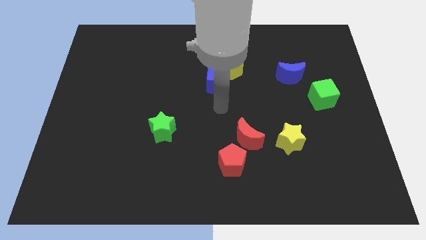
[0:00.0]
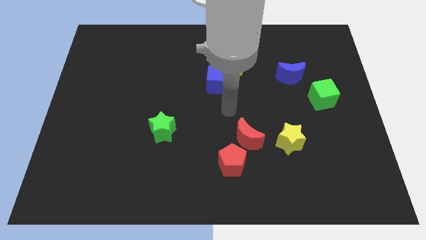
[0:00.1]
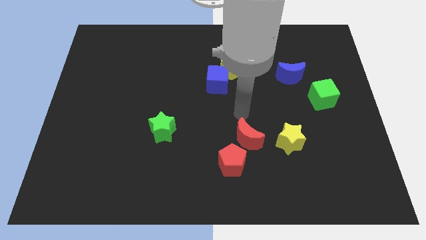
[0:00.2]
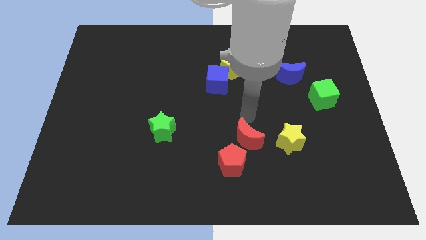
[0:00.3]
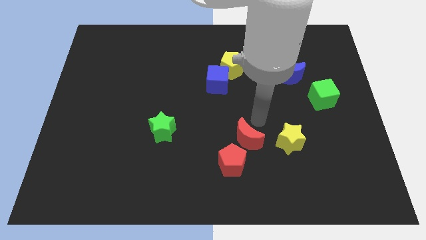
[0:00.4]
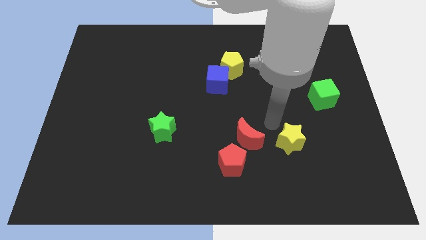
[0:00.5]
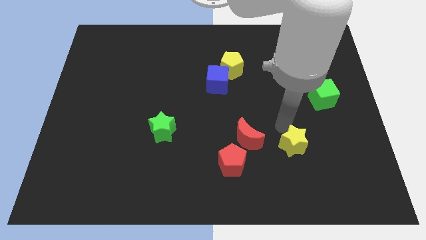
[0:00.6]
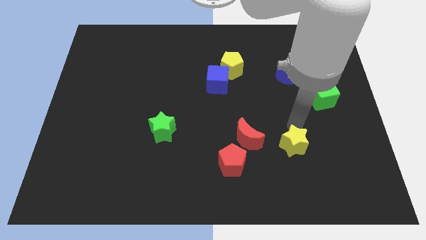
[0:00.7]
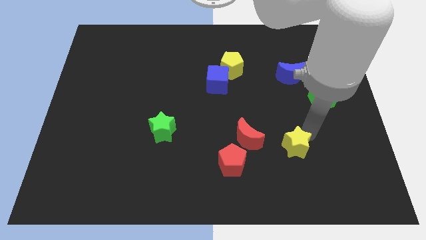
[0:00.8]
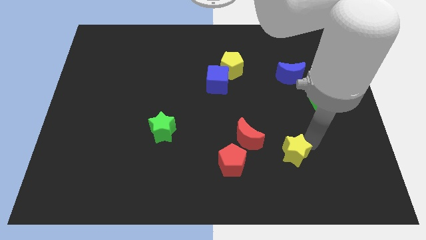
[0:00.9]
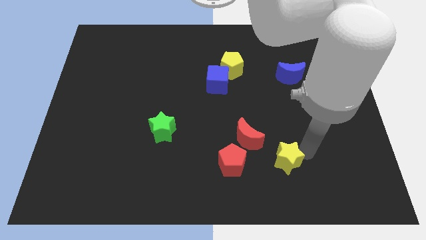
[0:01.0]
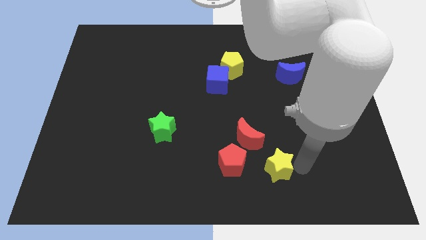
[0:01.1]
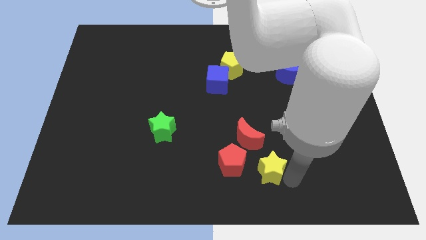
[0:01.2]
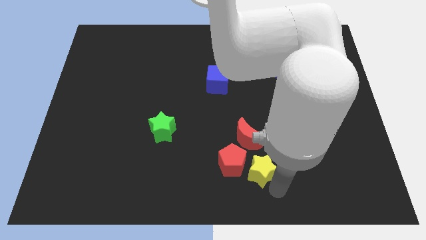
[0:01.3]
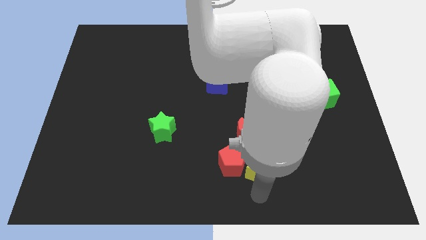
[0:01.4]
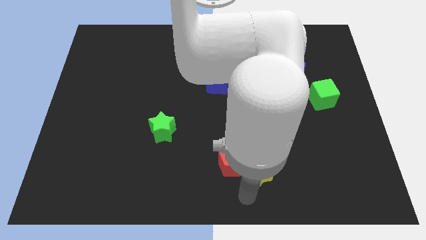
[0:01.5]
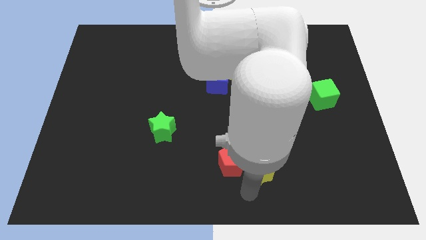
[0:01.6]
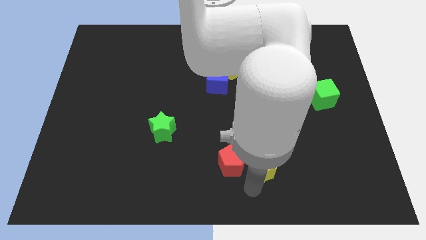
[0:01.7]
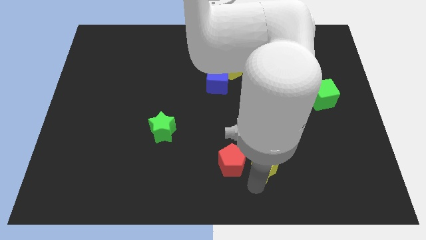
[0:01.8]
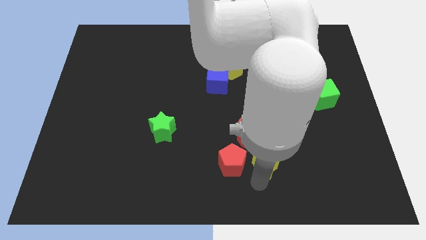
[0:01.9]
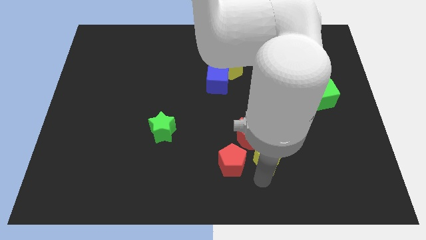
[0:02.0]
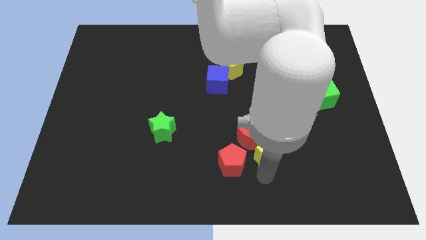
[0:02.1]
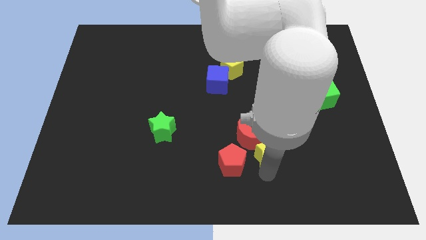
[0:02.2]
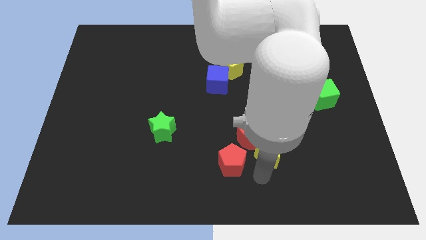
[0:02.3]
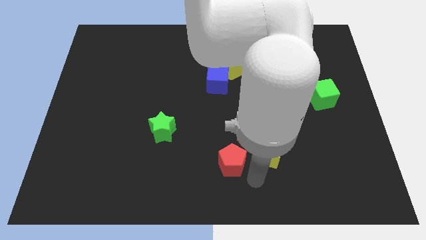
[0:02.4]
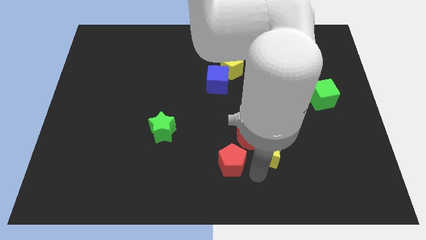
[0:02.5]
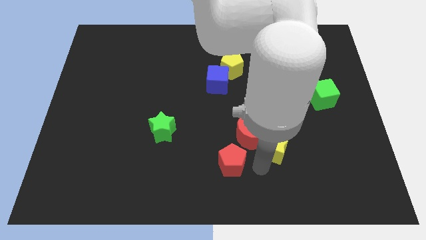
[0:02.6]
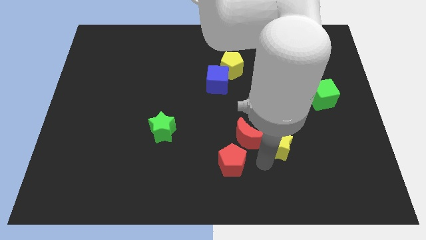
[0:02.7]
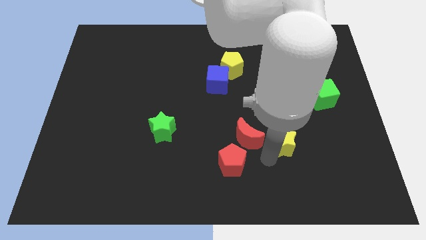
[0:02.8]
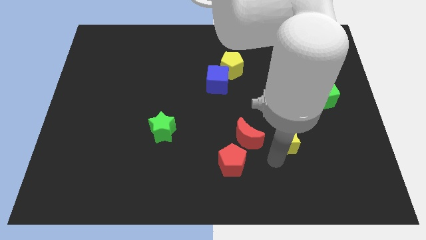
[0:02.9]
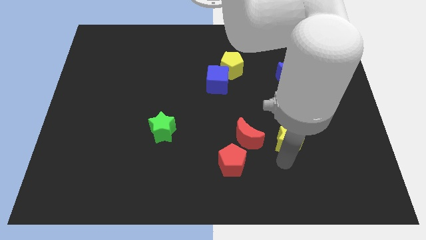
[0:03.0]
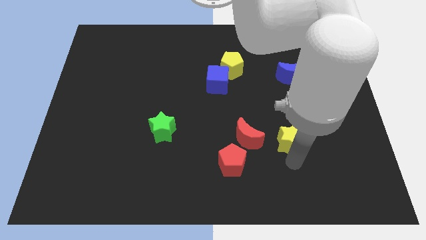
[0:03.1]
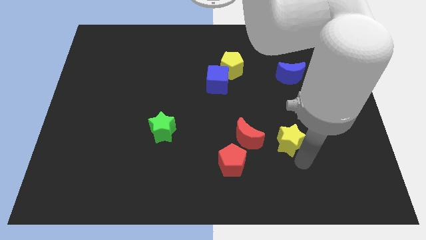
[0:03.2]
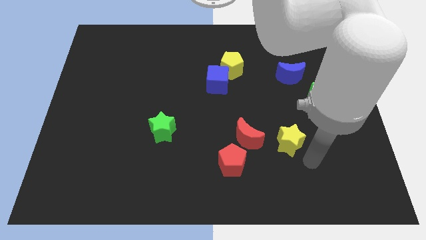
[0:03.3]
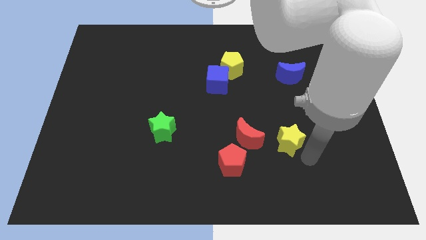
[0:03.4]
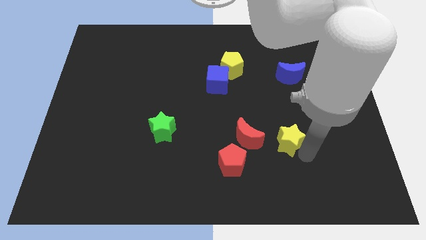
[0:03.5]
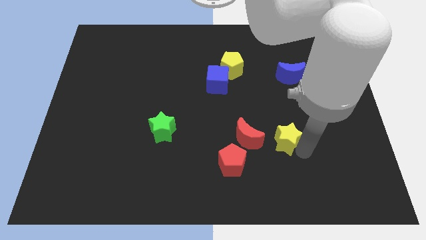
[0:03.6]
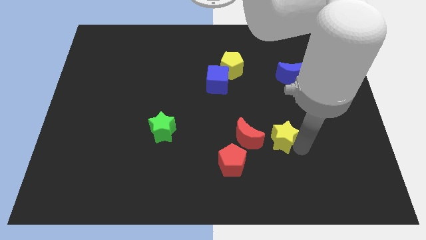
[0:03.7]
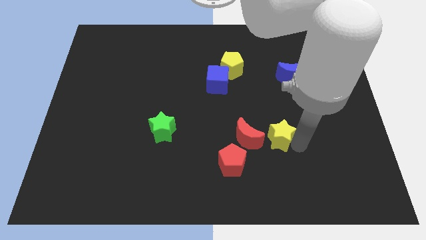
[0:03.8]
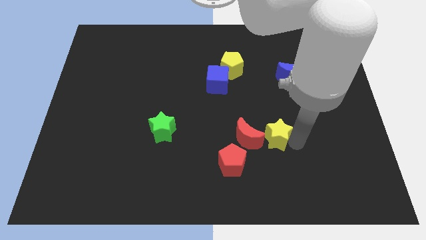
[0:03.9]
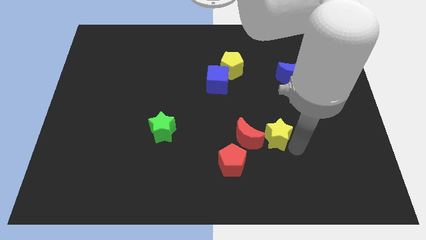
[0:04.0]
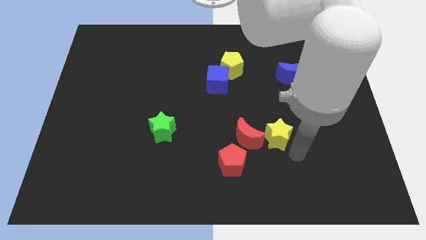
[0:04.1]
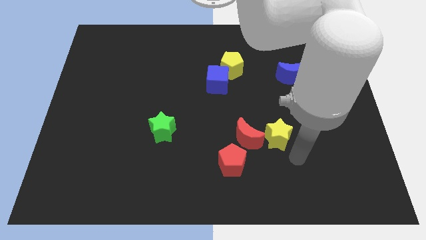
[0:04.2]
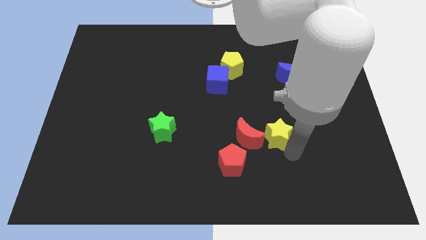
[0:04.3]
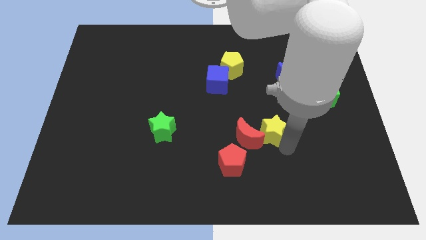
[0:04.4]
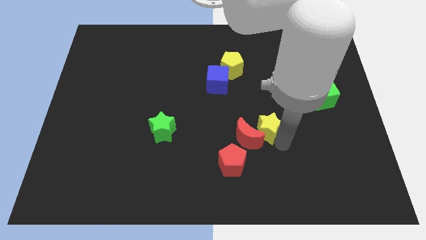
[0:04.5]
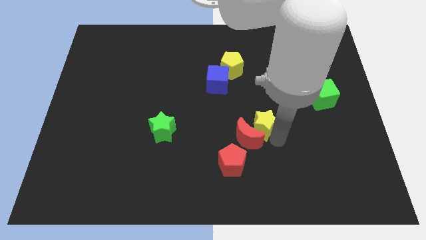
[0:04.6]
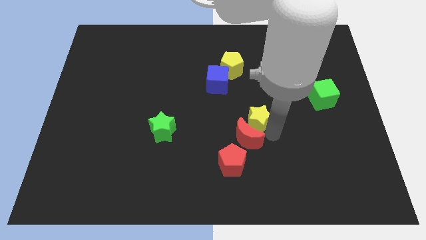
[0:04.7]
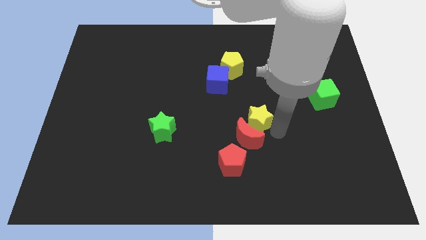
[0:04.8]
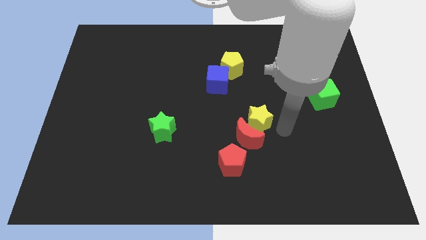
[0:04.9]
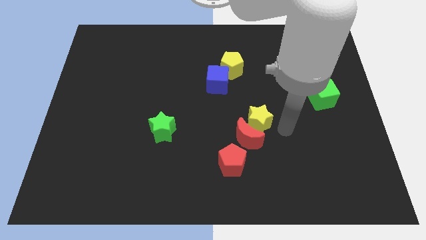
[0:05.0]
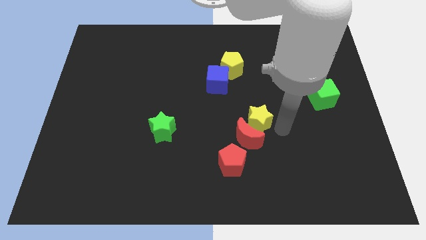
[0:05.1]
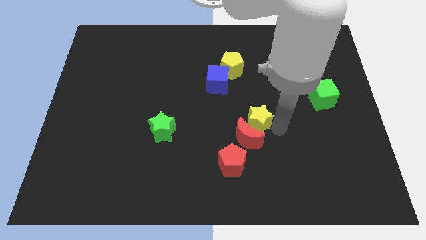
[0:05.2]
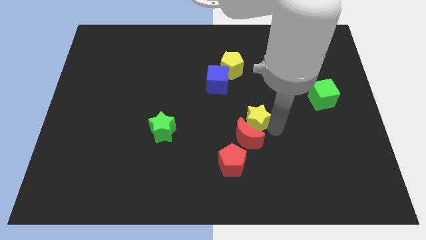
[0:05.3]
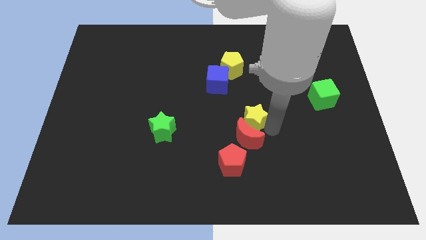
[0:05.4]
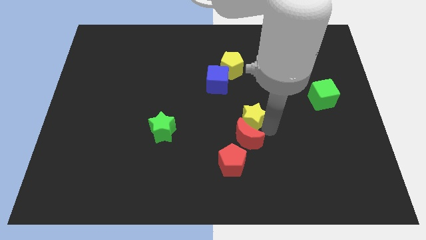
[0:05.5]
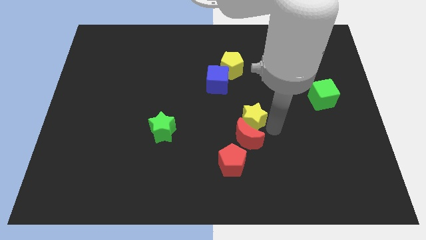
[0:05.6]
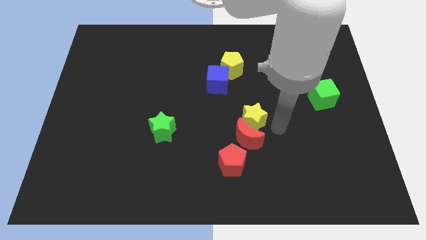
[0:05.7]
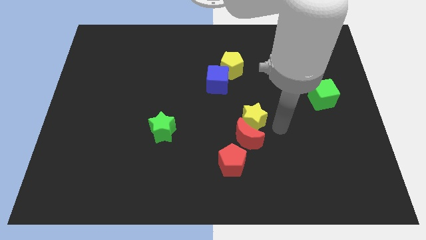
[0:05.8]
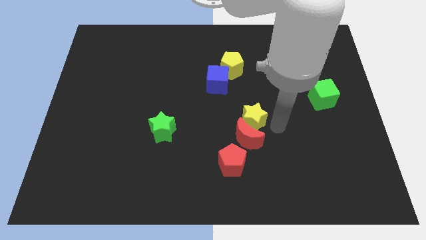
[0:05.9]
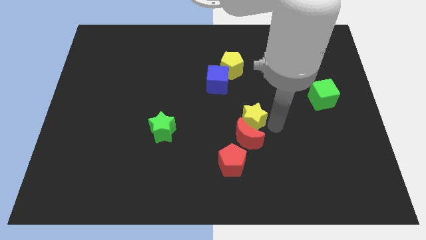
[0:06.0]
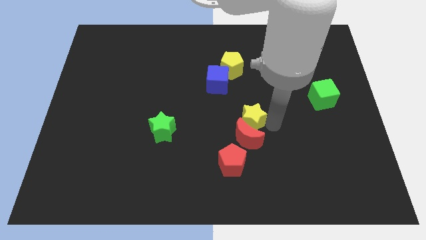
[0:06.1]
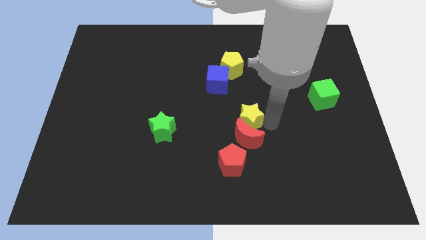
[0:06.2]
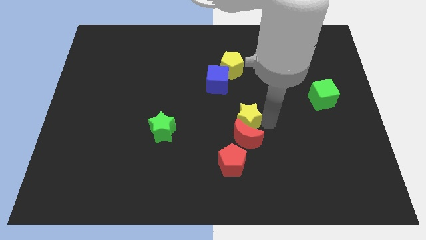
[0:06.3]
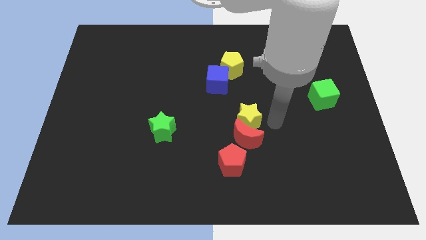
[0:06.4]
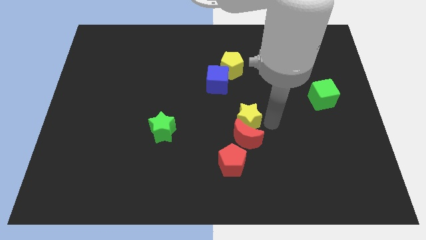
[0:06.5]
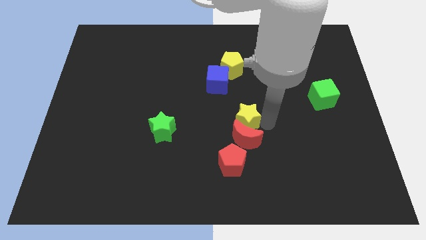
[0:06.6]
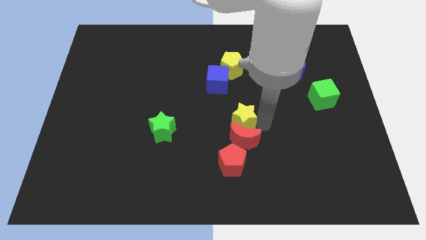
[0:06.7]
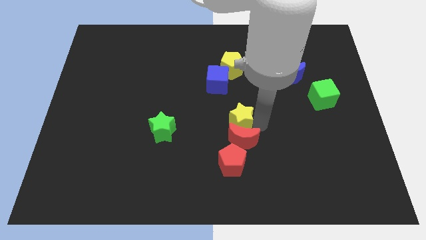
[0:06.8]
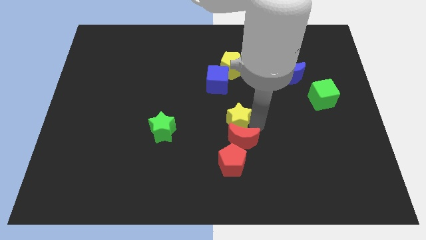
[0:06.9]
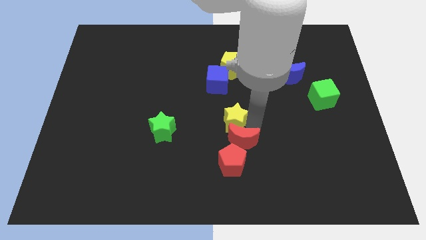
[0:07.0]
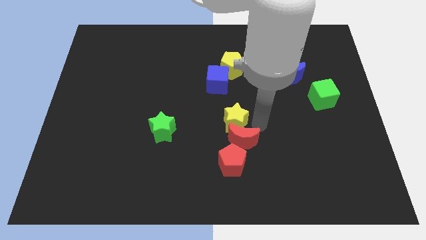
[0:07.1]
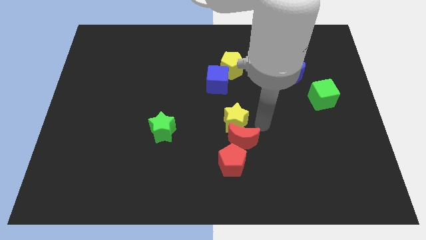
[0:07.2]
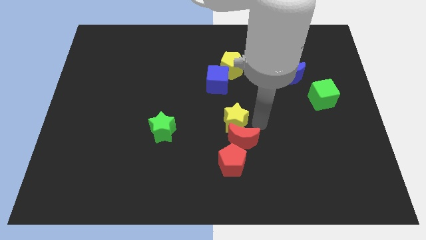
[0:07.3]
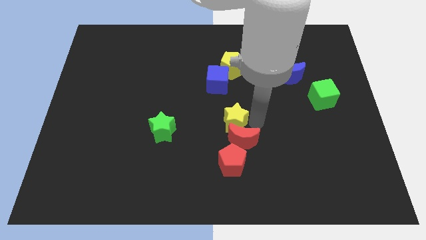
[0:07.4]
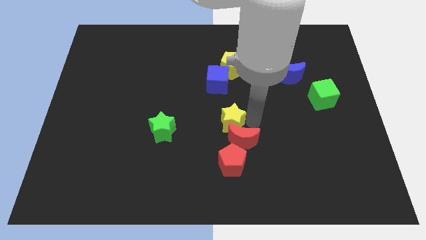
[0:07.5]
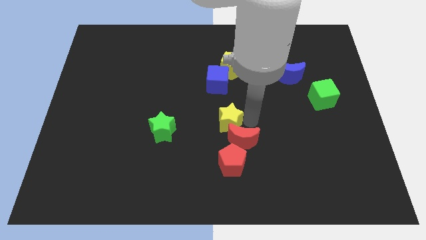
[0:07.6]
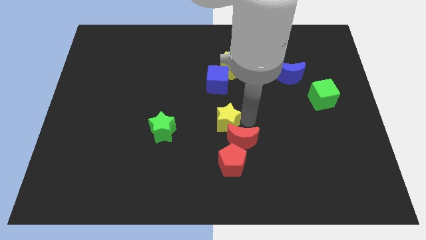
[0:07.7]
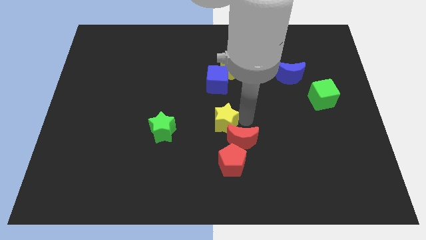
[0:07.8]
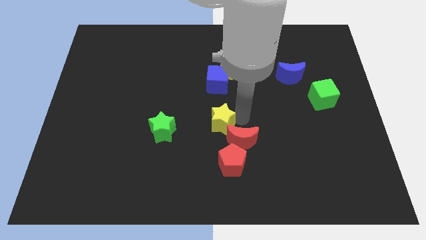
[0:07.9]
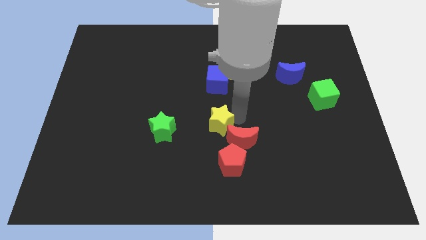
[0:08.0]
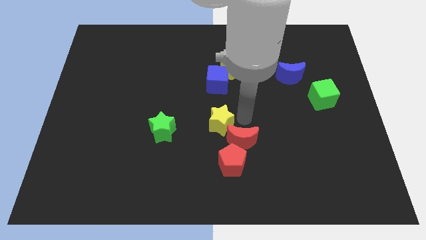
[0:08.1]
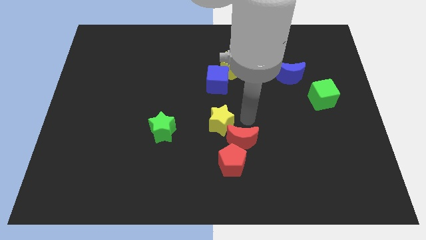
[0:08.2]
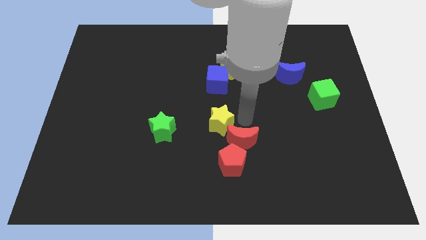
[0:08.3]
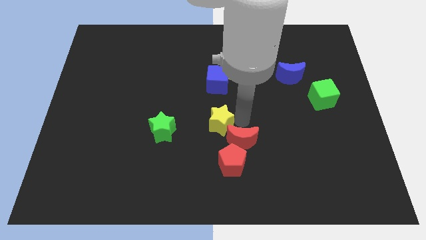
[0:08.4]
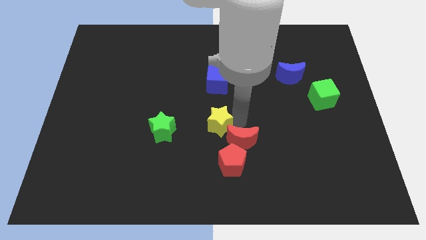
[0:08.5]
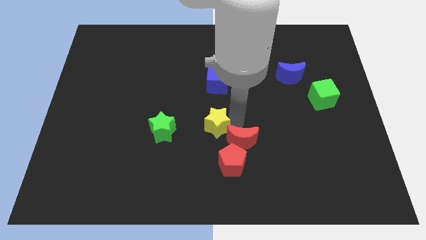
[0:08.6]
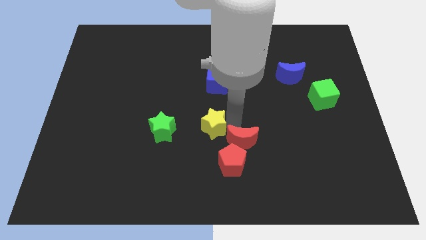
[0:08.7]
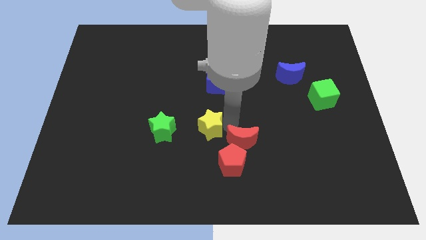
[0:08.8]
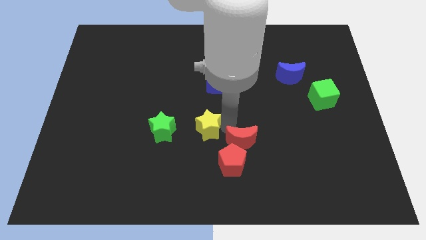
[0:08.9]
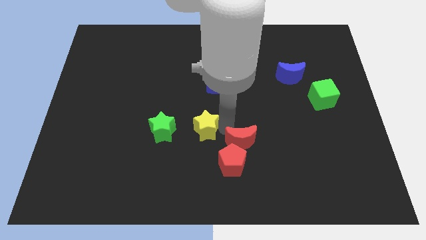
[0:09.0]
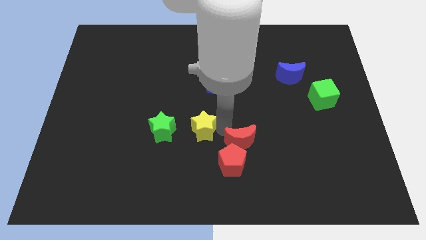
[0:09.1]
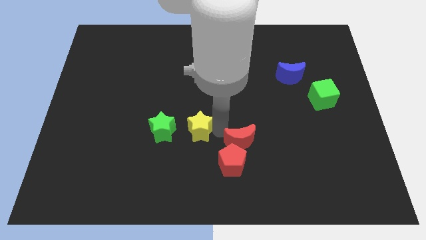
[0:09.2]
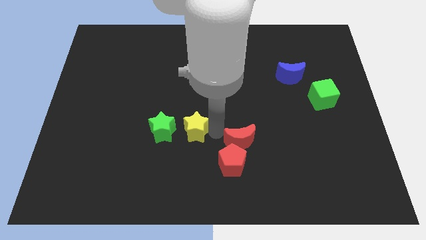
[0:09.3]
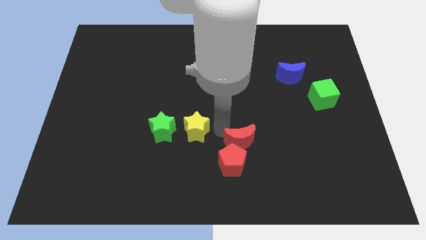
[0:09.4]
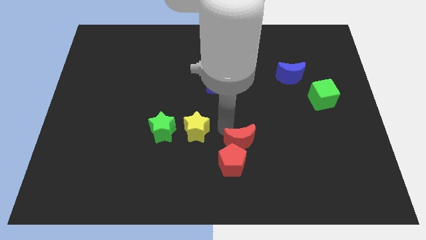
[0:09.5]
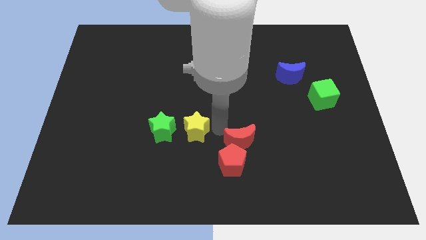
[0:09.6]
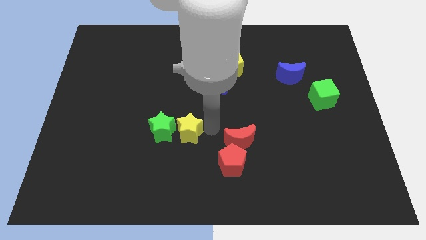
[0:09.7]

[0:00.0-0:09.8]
push the yellow star towards the green star
